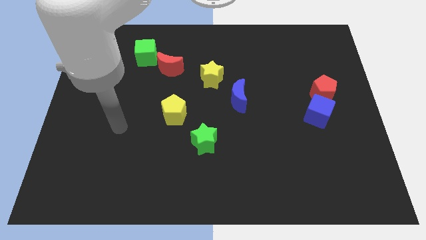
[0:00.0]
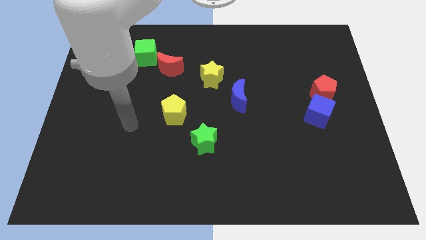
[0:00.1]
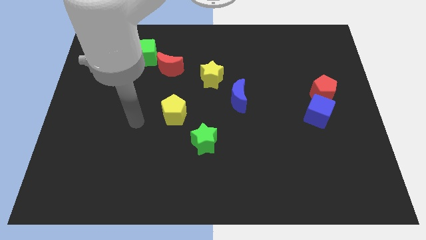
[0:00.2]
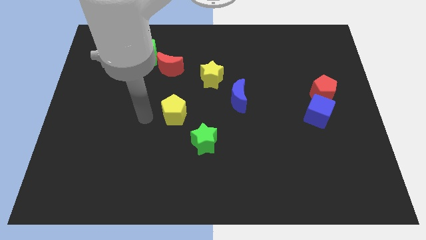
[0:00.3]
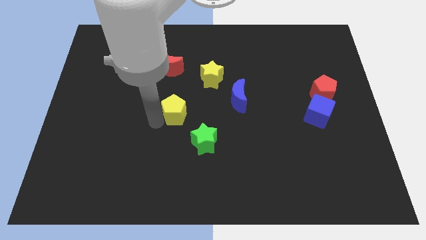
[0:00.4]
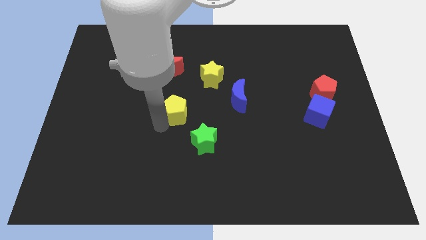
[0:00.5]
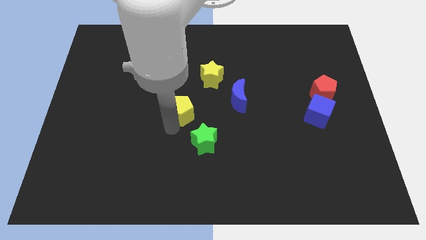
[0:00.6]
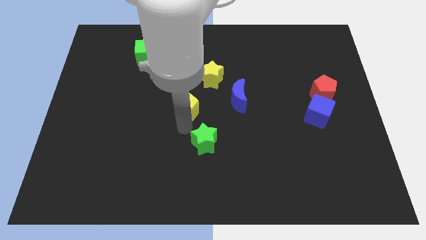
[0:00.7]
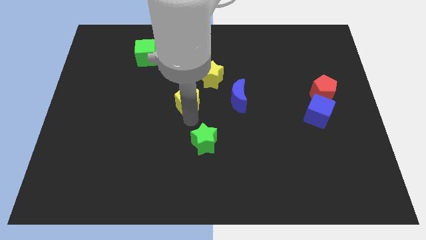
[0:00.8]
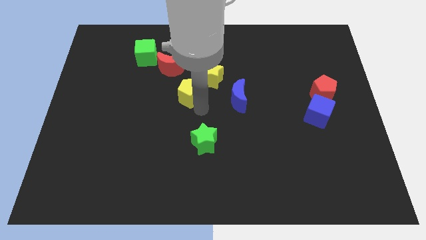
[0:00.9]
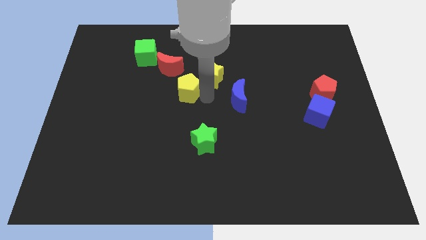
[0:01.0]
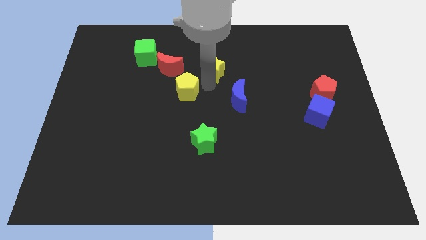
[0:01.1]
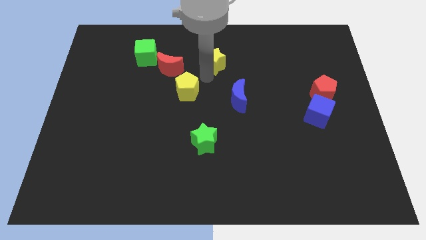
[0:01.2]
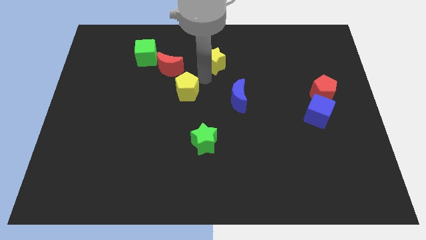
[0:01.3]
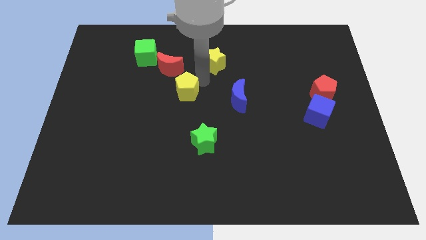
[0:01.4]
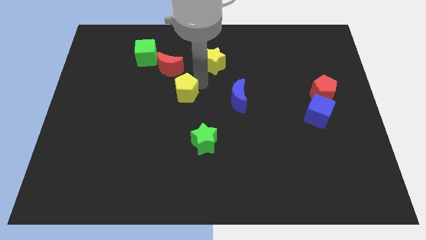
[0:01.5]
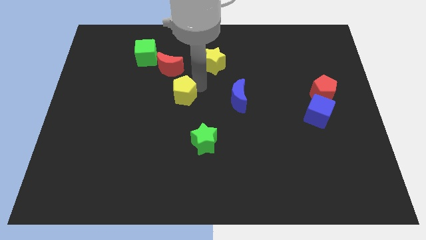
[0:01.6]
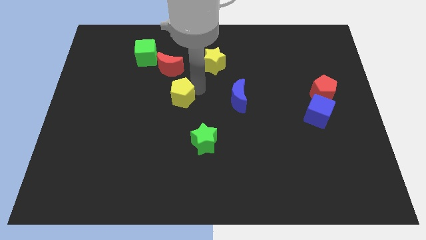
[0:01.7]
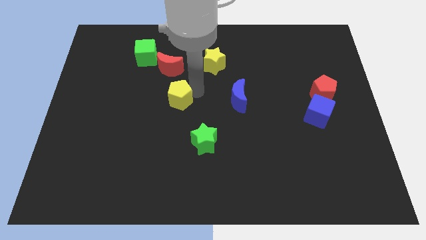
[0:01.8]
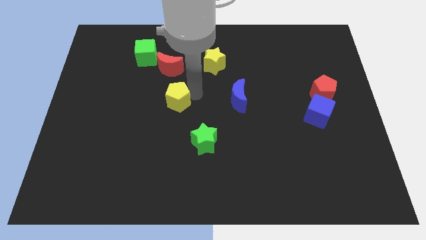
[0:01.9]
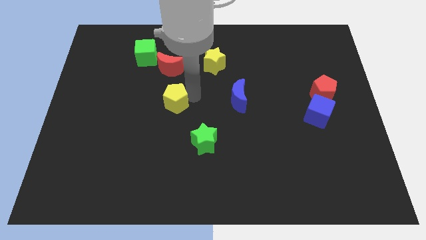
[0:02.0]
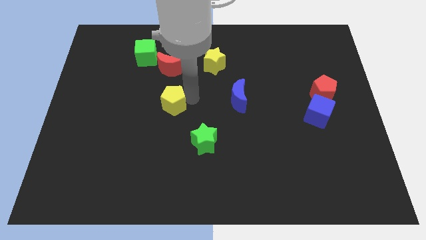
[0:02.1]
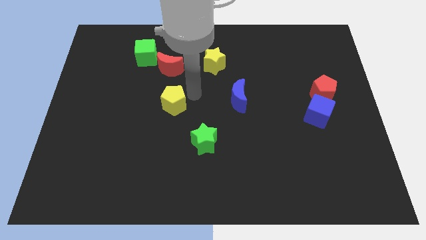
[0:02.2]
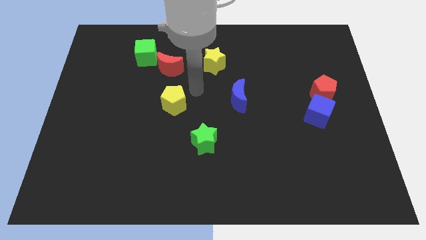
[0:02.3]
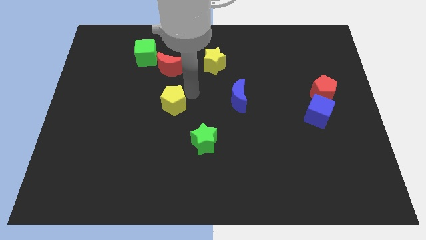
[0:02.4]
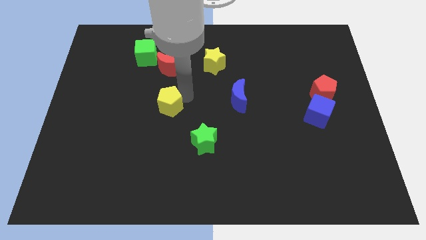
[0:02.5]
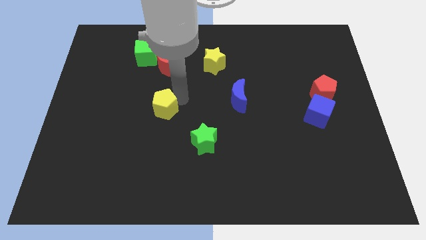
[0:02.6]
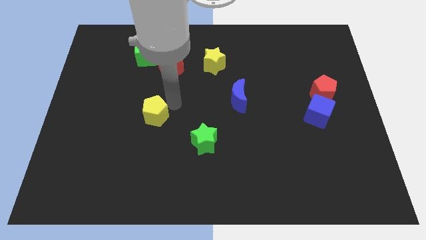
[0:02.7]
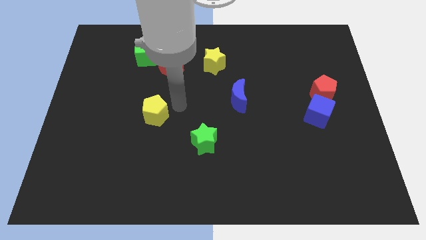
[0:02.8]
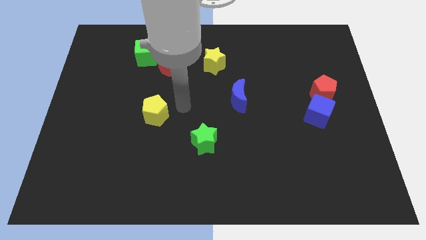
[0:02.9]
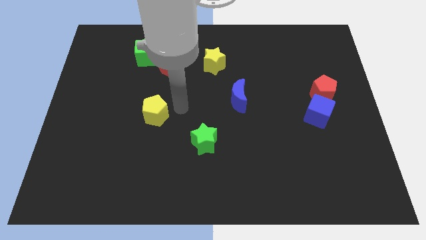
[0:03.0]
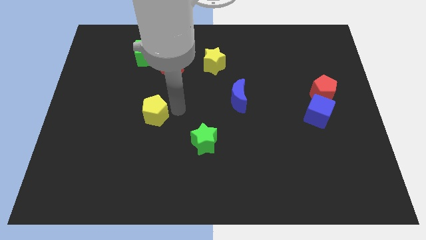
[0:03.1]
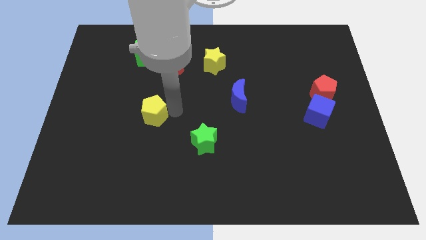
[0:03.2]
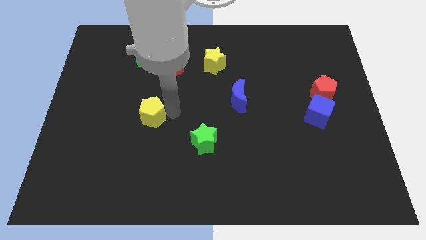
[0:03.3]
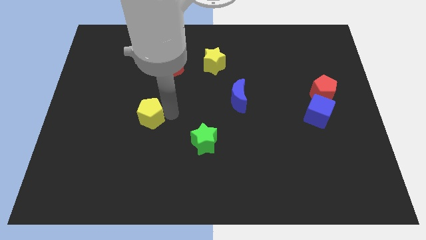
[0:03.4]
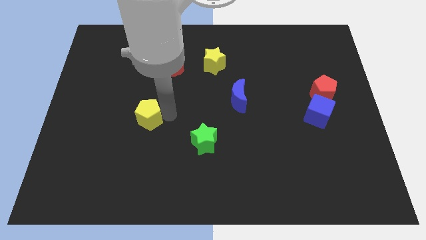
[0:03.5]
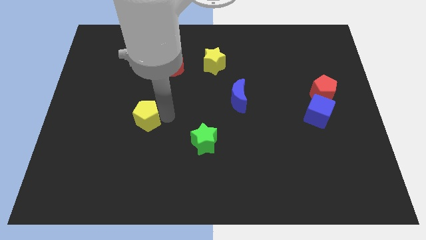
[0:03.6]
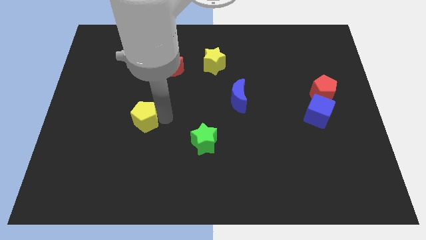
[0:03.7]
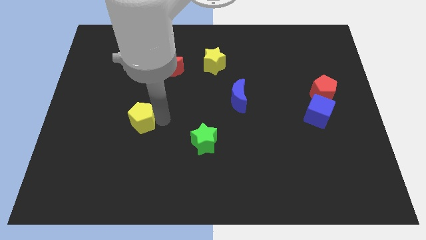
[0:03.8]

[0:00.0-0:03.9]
slide the yellow pentagon to the left somewhat

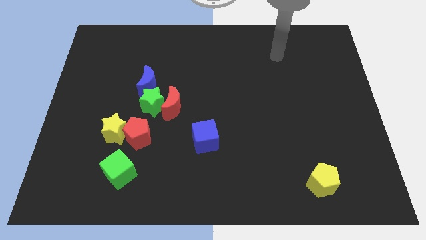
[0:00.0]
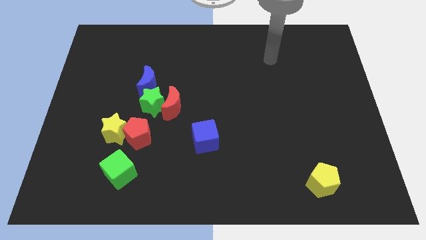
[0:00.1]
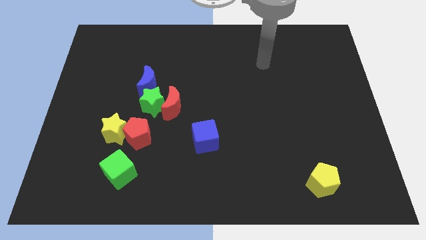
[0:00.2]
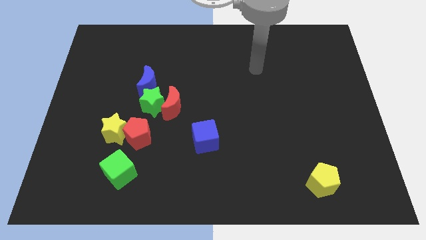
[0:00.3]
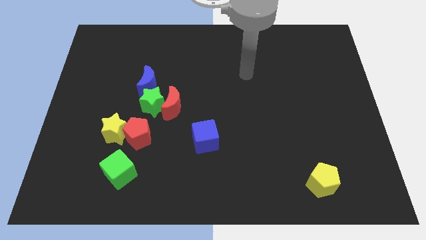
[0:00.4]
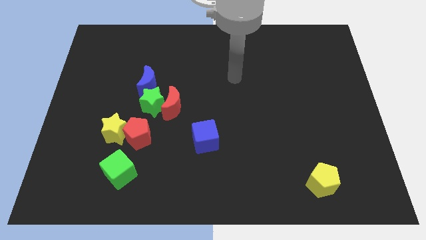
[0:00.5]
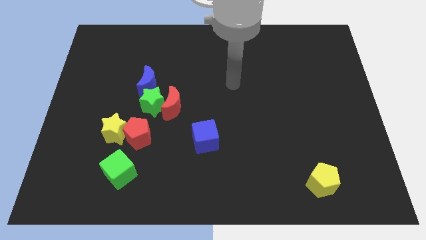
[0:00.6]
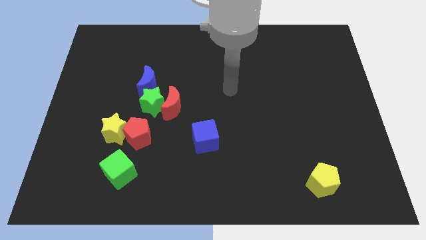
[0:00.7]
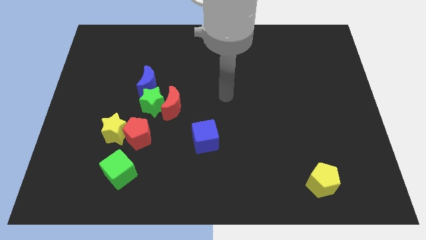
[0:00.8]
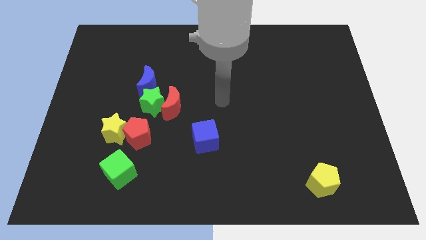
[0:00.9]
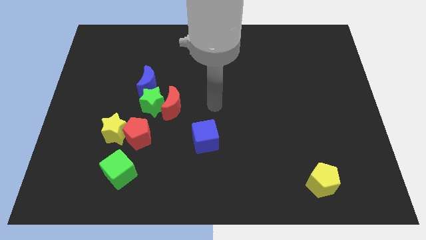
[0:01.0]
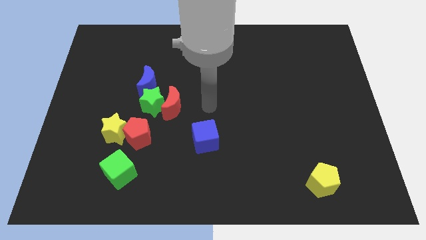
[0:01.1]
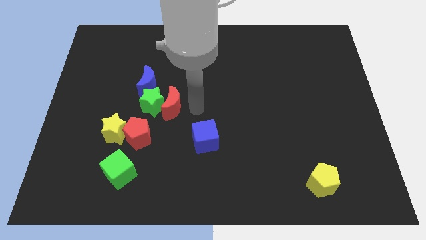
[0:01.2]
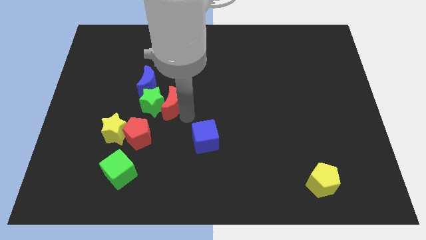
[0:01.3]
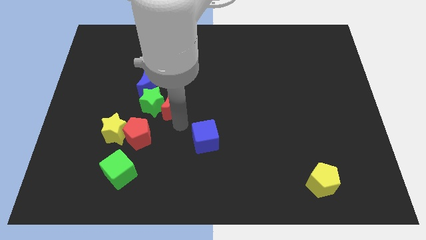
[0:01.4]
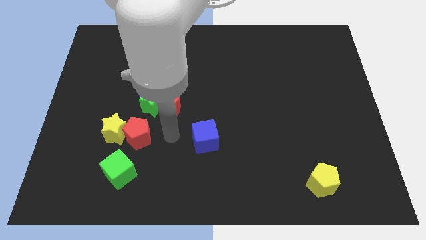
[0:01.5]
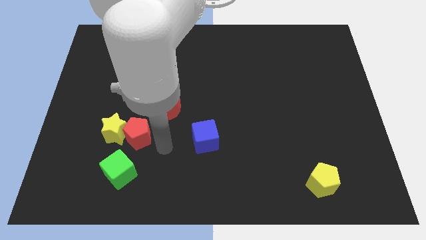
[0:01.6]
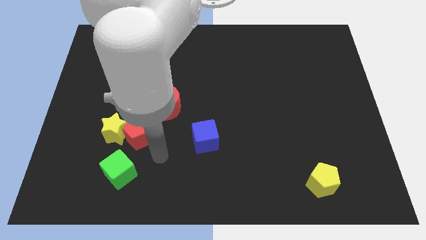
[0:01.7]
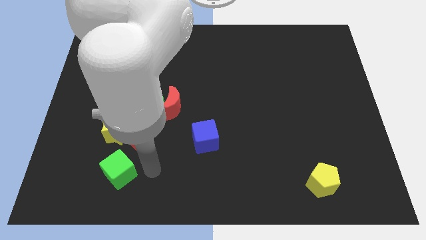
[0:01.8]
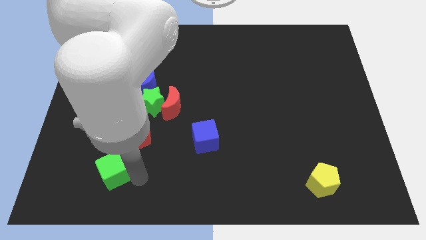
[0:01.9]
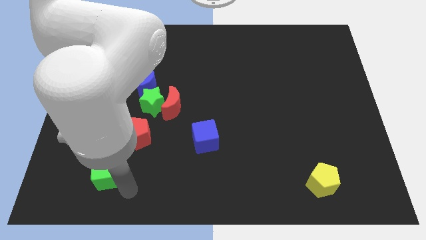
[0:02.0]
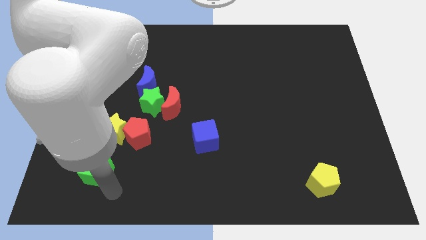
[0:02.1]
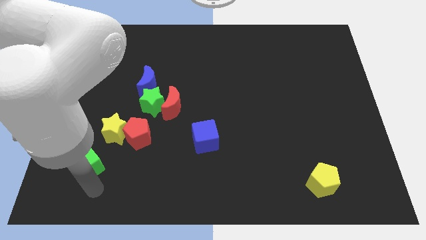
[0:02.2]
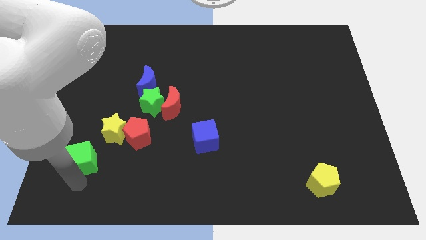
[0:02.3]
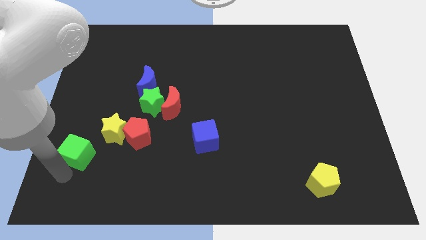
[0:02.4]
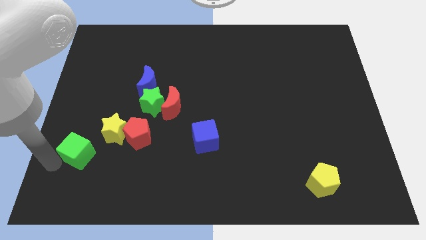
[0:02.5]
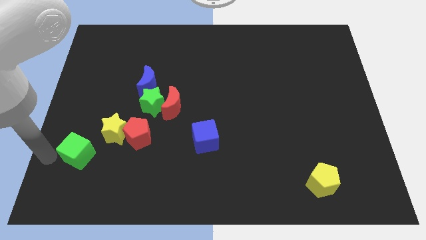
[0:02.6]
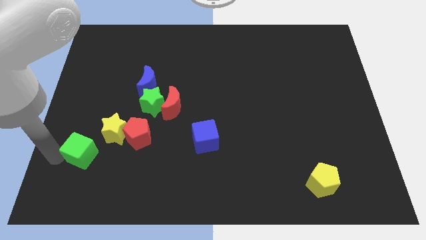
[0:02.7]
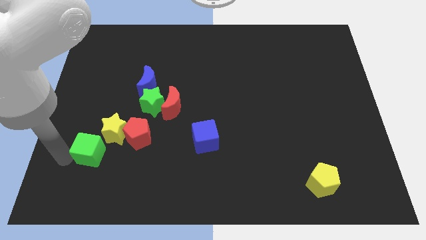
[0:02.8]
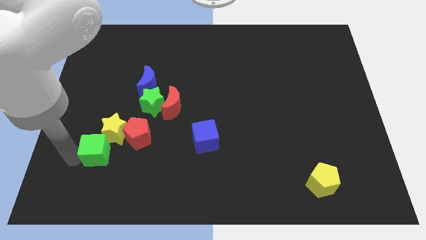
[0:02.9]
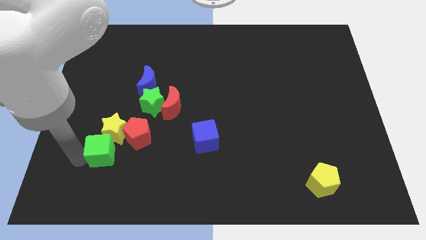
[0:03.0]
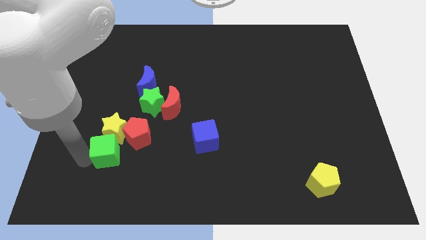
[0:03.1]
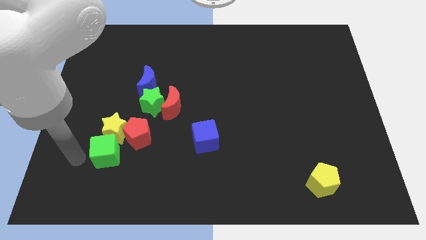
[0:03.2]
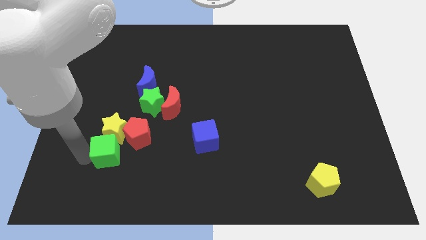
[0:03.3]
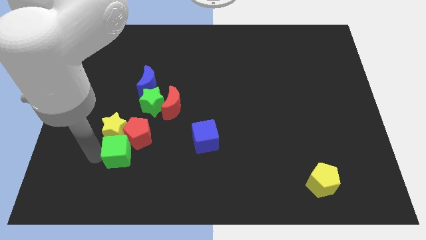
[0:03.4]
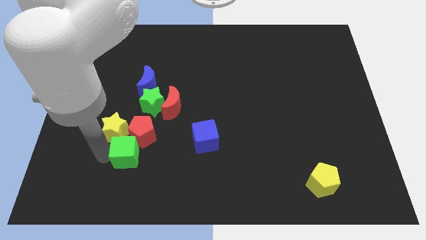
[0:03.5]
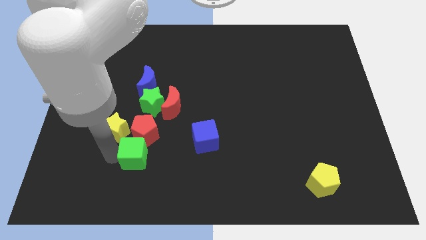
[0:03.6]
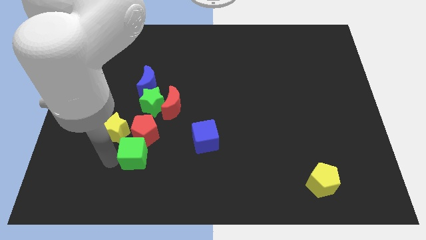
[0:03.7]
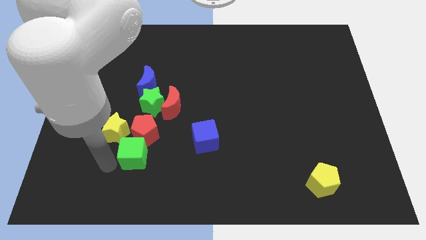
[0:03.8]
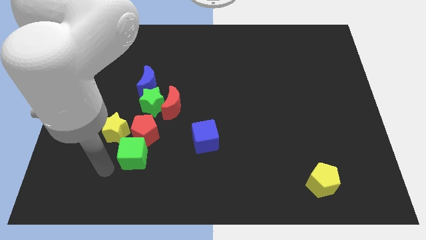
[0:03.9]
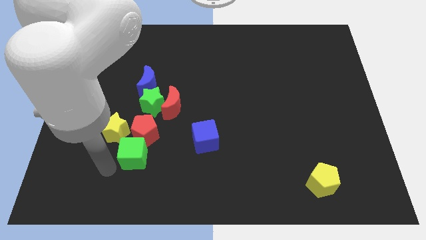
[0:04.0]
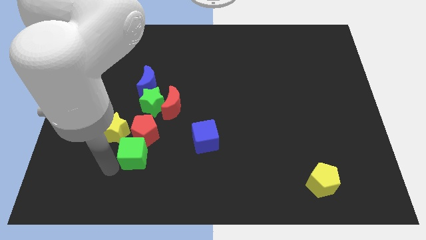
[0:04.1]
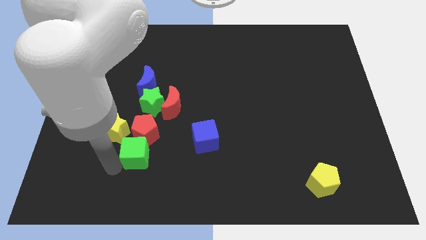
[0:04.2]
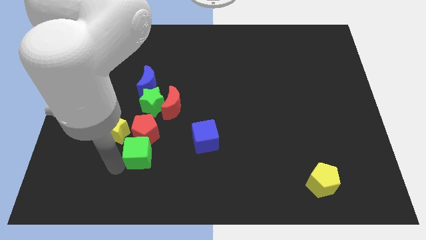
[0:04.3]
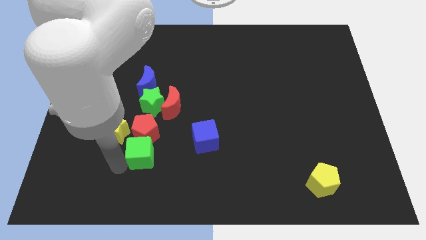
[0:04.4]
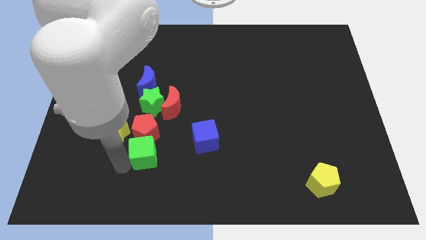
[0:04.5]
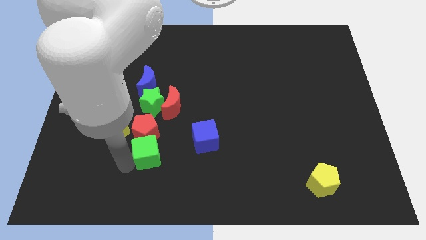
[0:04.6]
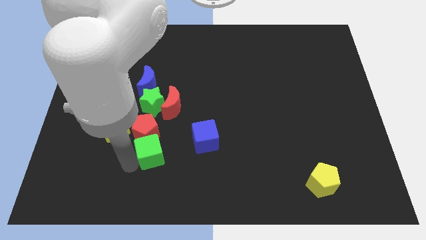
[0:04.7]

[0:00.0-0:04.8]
slightly slide the green cube up and then to the right
